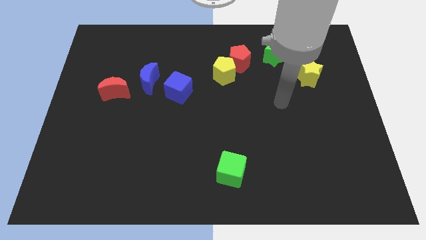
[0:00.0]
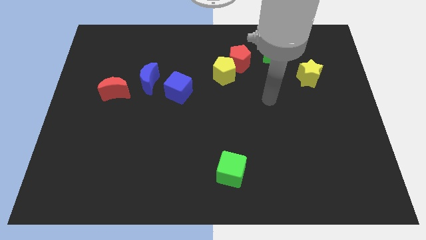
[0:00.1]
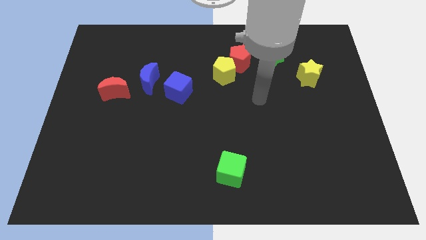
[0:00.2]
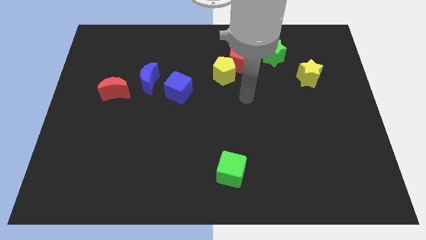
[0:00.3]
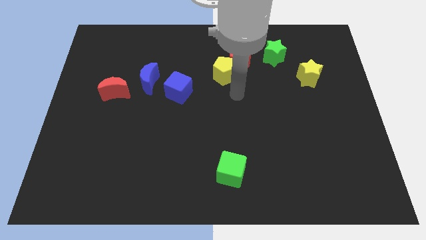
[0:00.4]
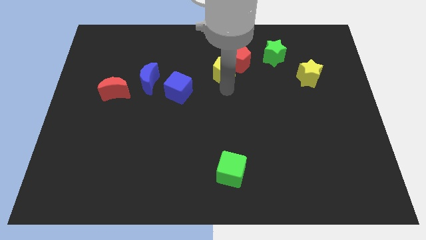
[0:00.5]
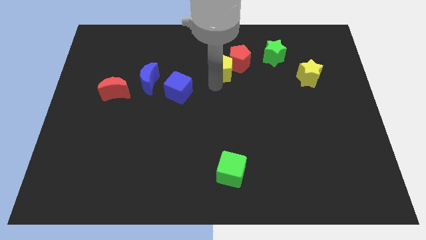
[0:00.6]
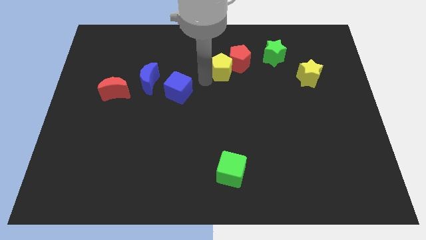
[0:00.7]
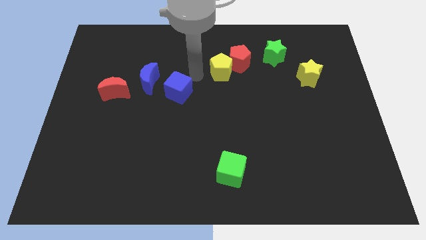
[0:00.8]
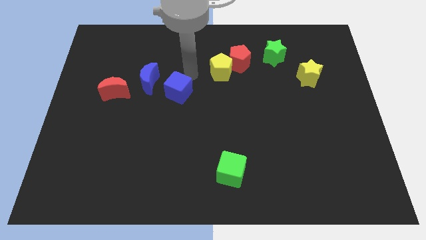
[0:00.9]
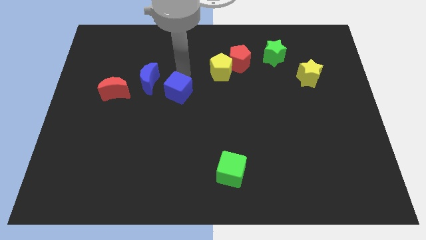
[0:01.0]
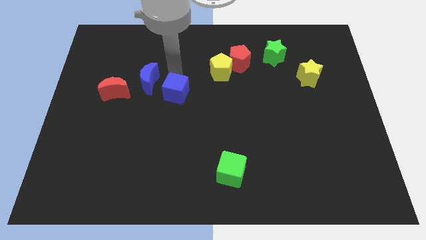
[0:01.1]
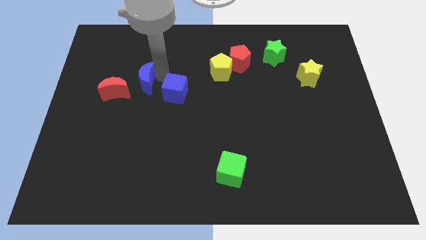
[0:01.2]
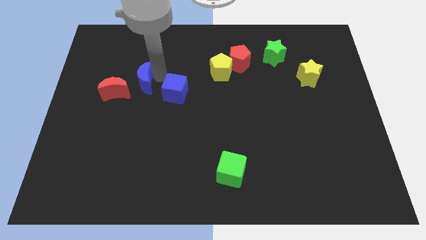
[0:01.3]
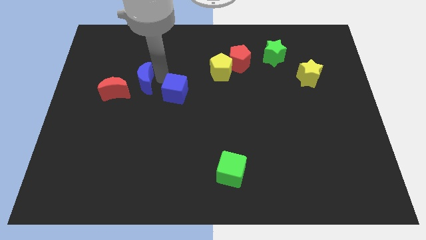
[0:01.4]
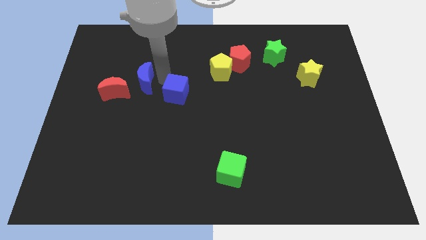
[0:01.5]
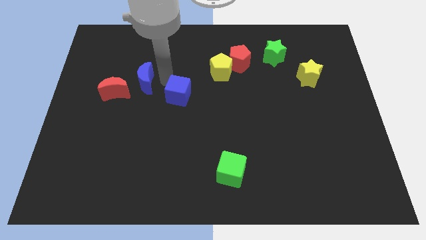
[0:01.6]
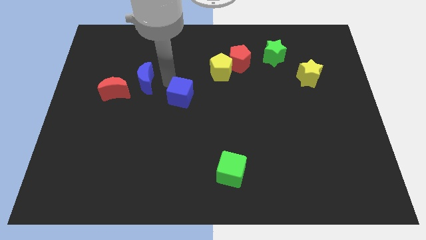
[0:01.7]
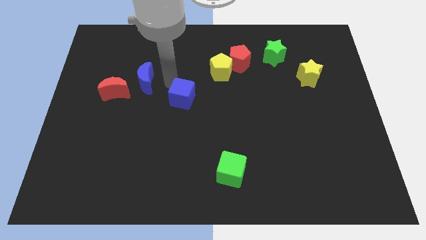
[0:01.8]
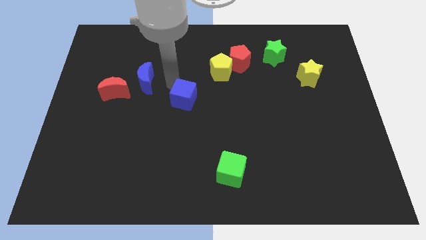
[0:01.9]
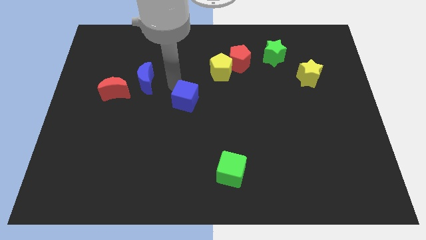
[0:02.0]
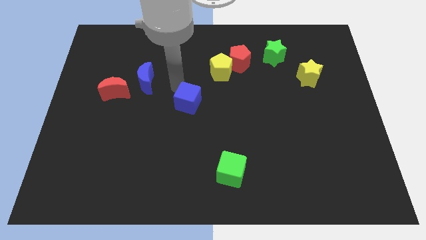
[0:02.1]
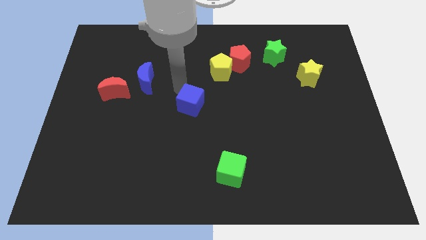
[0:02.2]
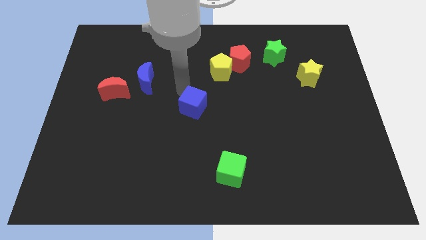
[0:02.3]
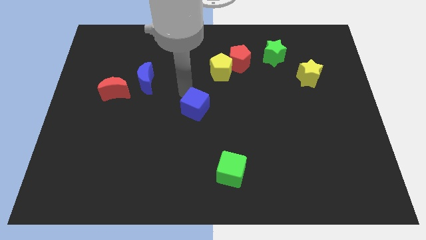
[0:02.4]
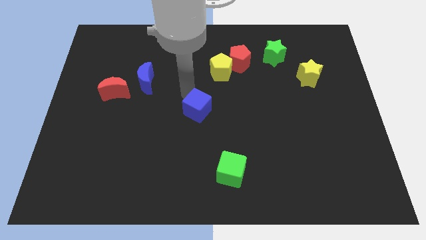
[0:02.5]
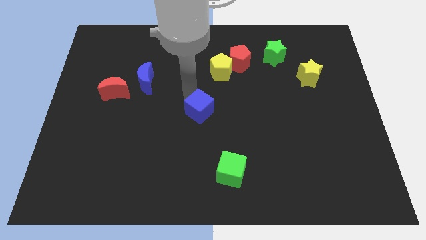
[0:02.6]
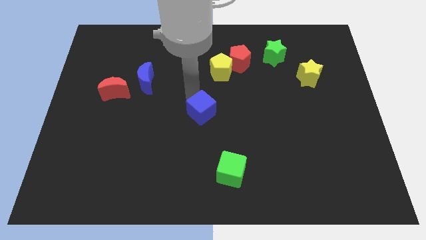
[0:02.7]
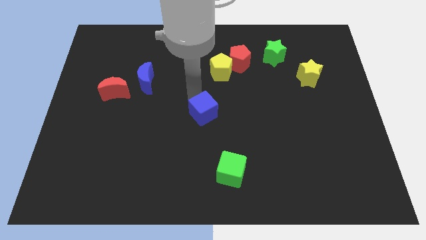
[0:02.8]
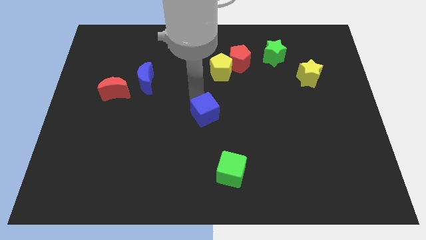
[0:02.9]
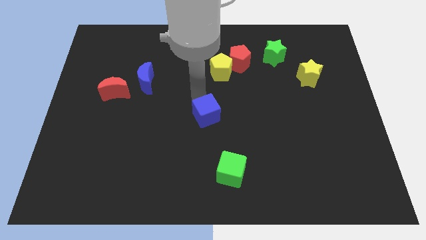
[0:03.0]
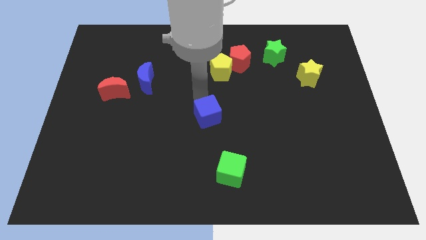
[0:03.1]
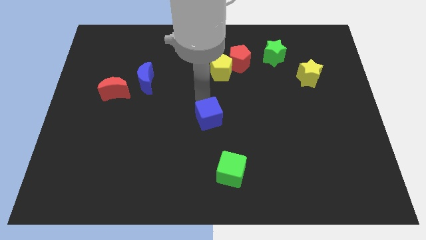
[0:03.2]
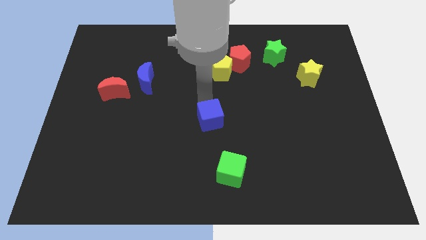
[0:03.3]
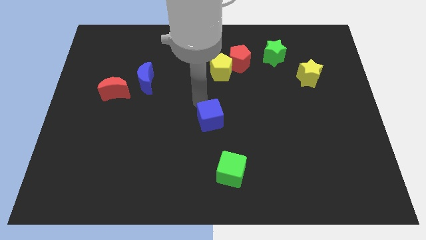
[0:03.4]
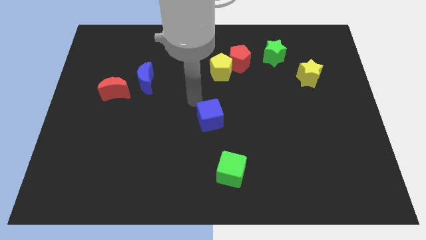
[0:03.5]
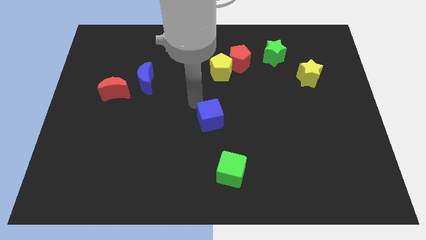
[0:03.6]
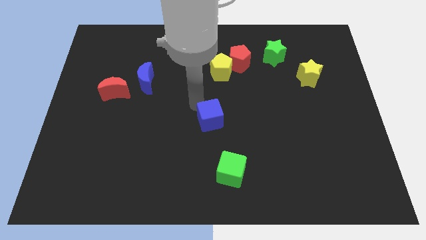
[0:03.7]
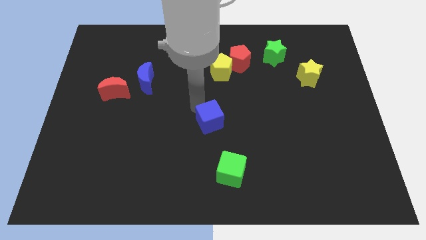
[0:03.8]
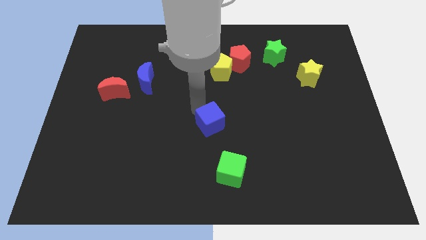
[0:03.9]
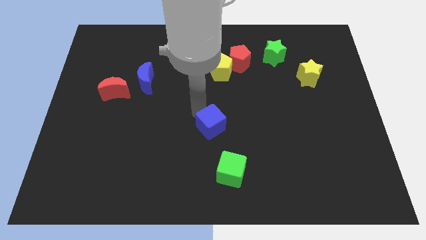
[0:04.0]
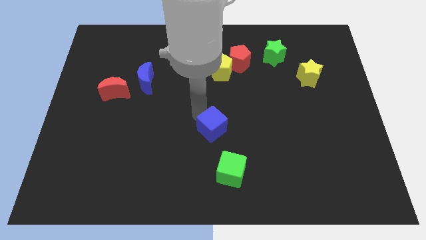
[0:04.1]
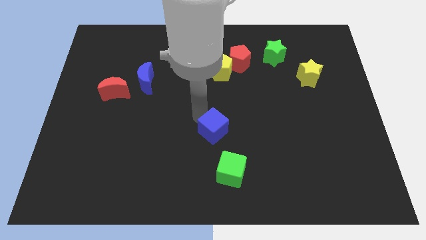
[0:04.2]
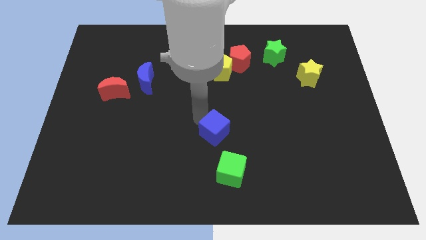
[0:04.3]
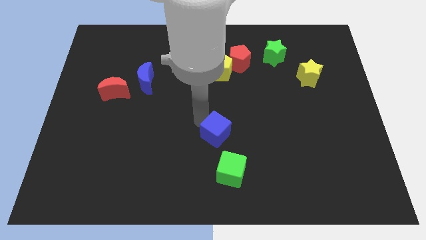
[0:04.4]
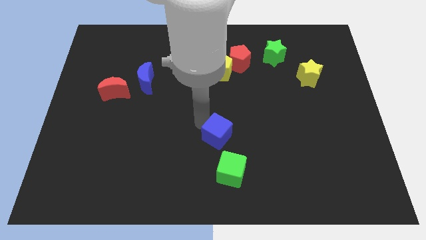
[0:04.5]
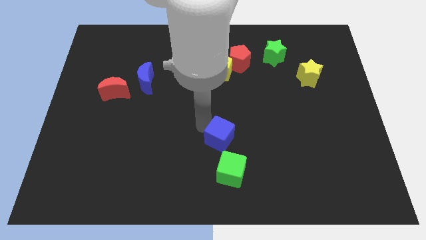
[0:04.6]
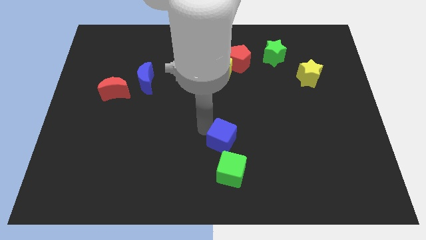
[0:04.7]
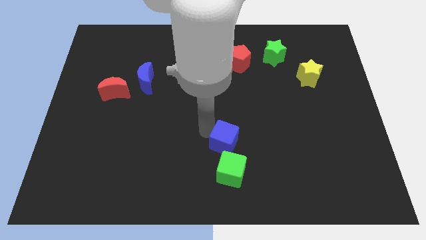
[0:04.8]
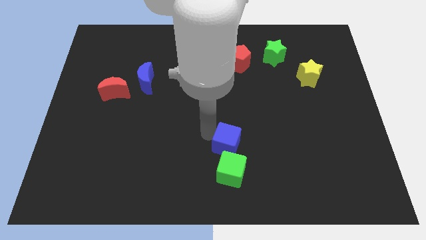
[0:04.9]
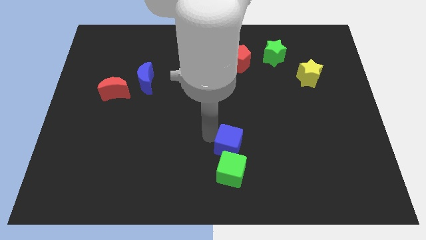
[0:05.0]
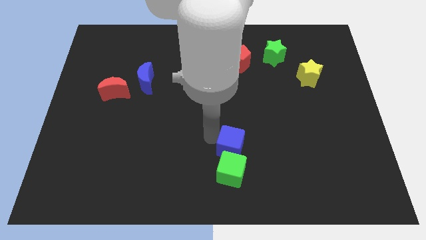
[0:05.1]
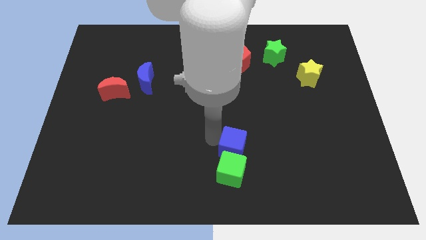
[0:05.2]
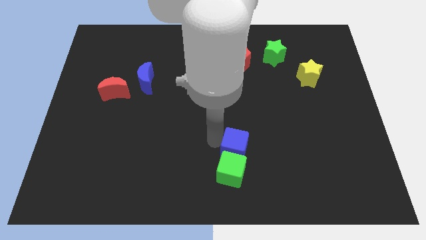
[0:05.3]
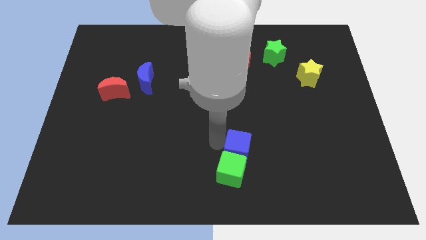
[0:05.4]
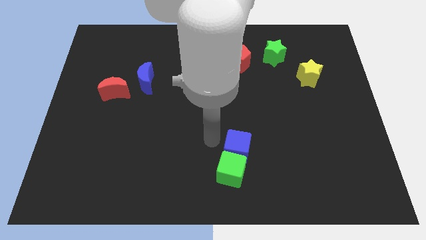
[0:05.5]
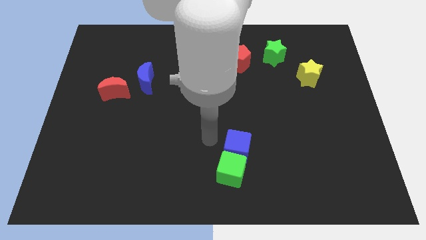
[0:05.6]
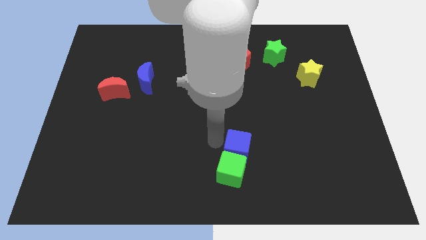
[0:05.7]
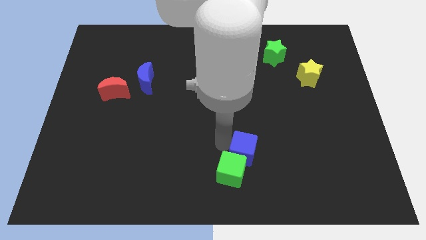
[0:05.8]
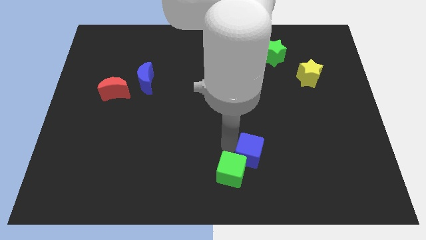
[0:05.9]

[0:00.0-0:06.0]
push the blue cube just right of the green cube

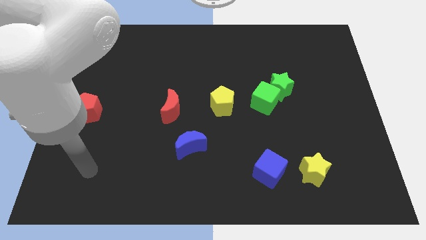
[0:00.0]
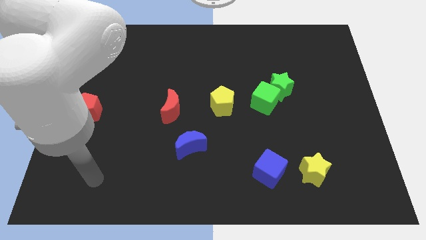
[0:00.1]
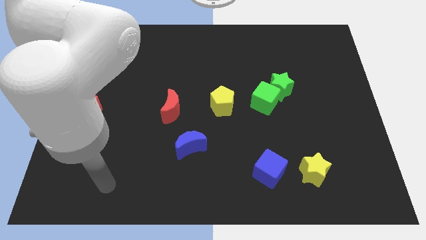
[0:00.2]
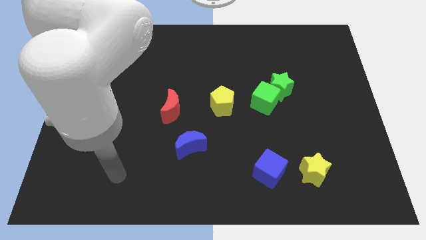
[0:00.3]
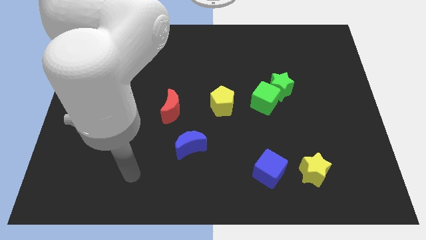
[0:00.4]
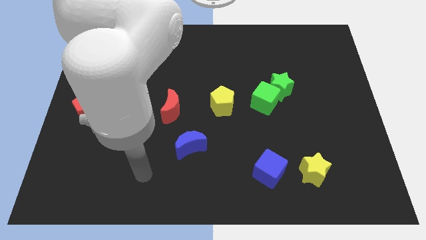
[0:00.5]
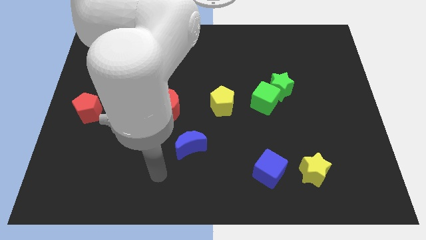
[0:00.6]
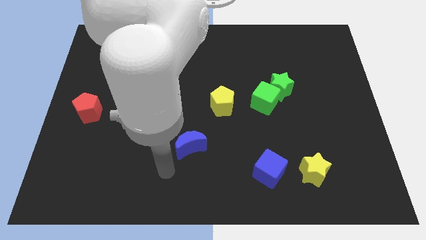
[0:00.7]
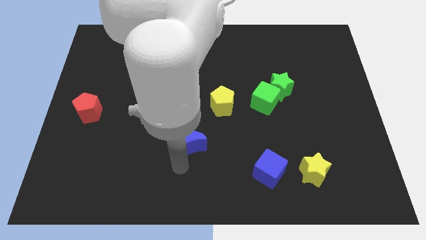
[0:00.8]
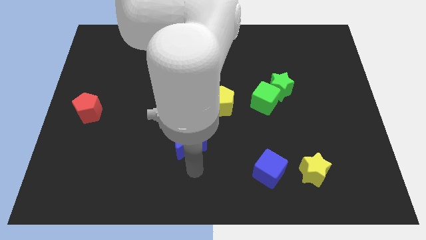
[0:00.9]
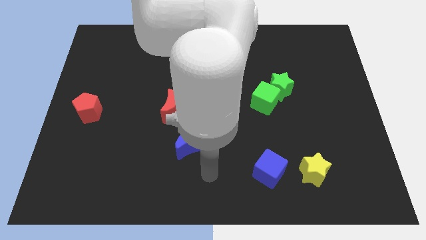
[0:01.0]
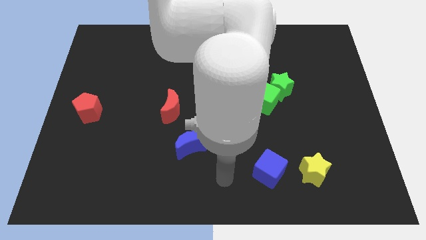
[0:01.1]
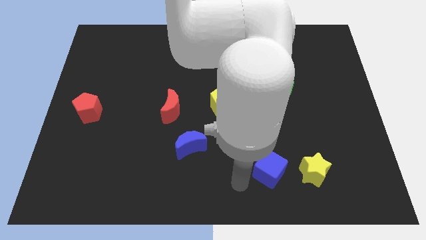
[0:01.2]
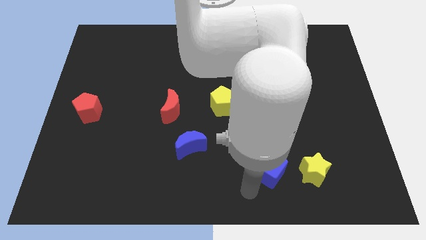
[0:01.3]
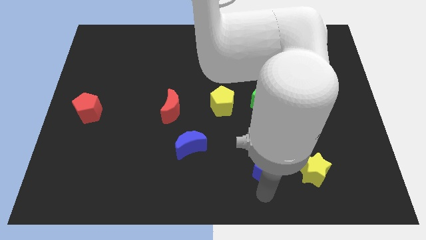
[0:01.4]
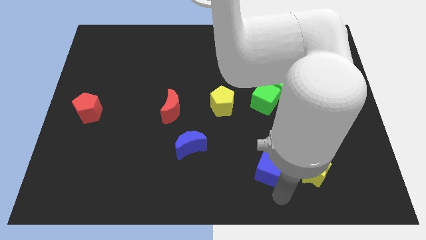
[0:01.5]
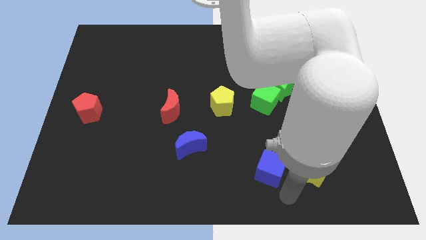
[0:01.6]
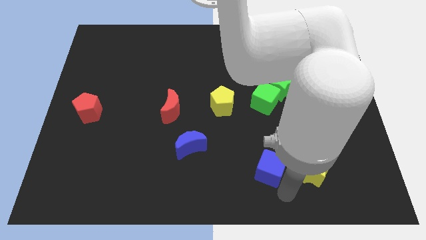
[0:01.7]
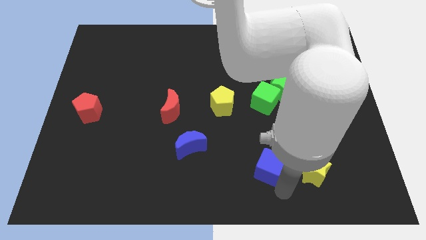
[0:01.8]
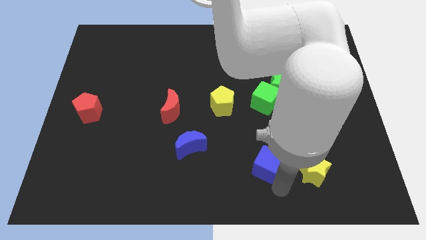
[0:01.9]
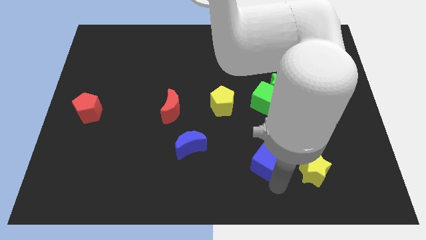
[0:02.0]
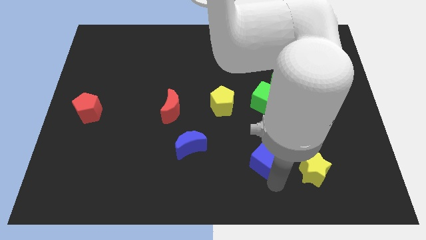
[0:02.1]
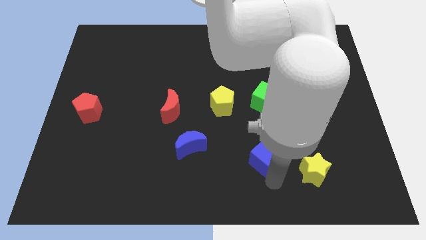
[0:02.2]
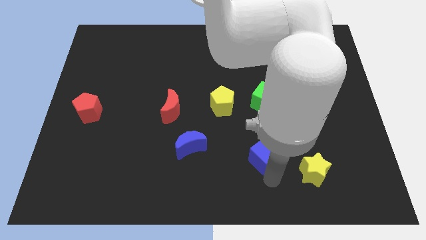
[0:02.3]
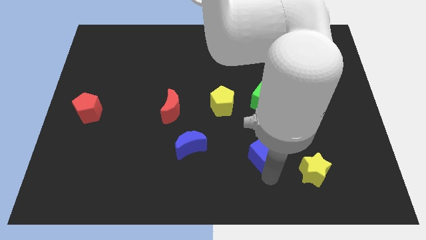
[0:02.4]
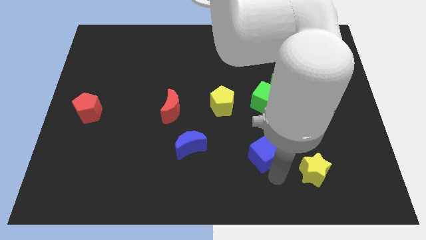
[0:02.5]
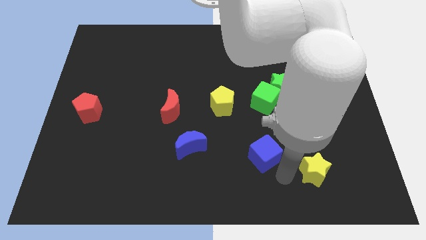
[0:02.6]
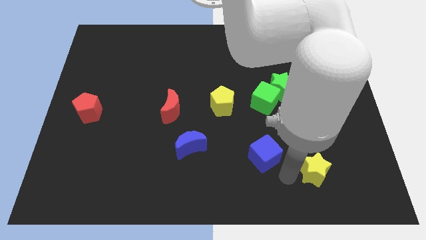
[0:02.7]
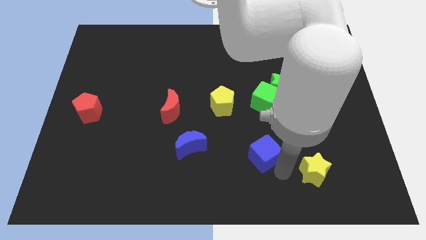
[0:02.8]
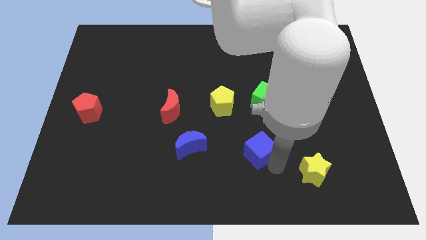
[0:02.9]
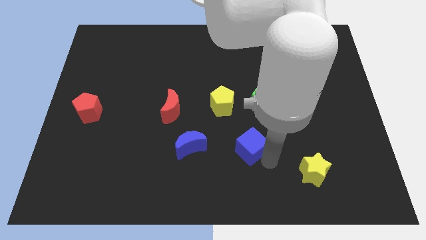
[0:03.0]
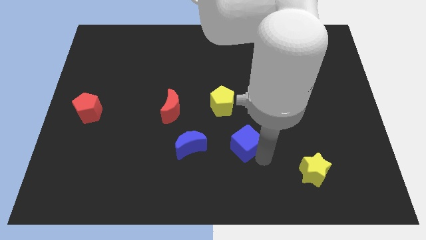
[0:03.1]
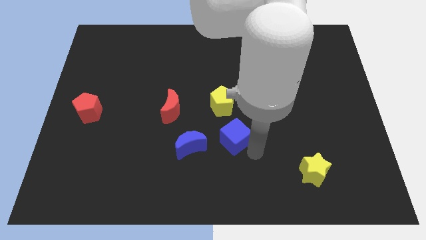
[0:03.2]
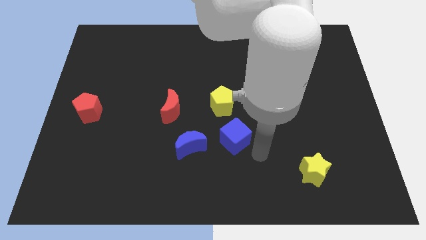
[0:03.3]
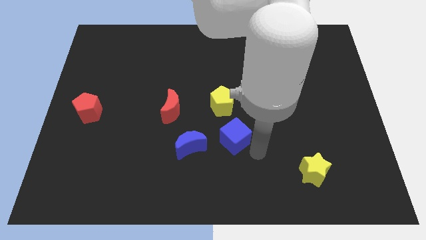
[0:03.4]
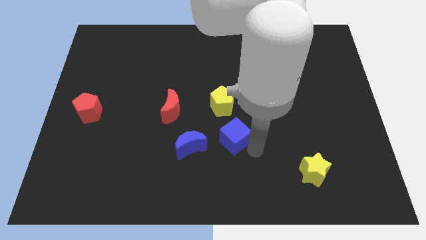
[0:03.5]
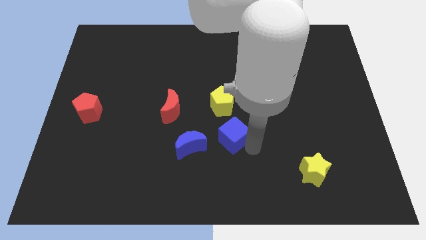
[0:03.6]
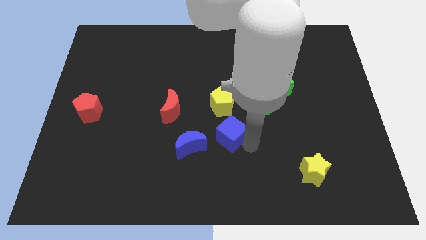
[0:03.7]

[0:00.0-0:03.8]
slide the blue cube diagonally up and to the right of the blue moon
